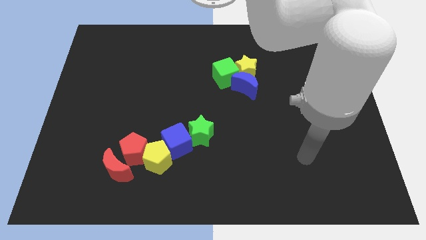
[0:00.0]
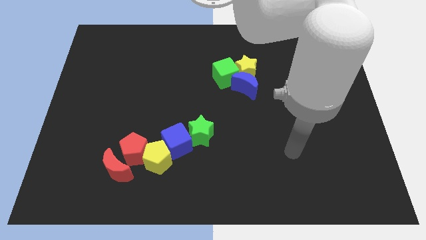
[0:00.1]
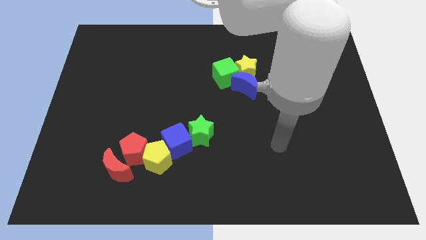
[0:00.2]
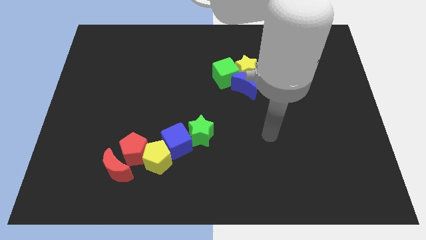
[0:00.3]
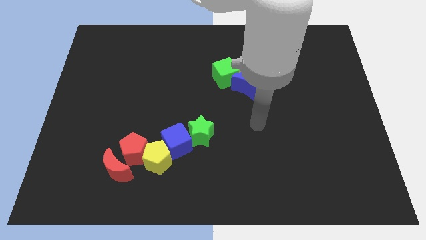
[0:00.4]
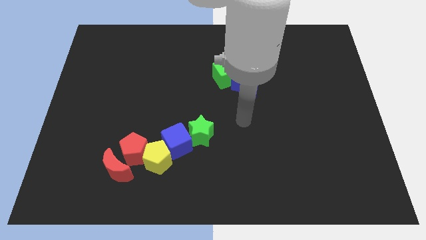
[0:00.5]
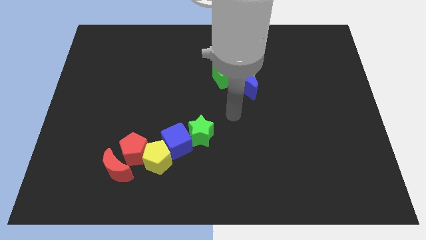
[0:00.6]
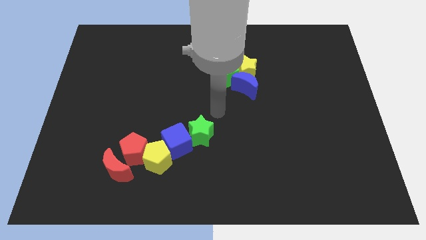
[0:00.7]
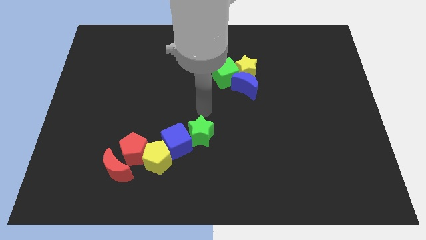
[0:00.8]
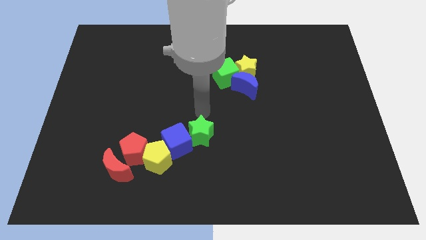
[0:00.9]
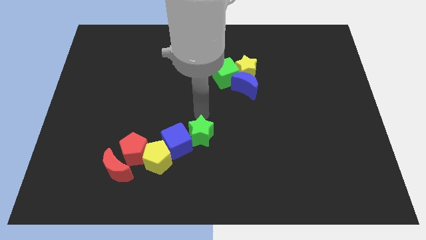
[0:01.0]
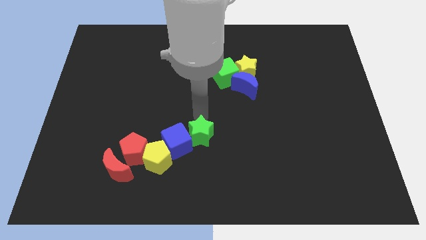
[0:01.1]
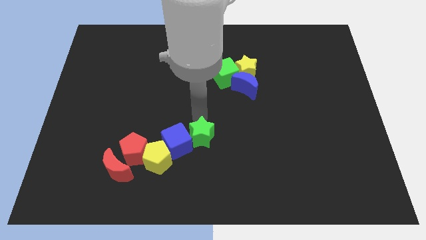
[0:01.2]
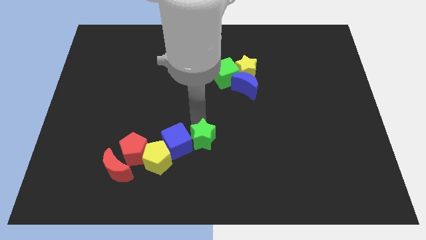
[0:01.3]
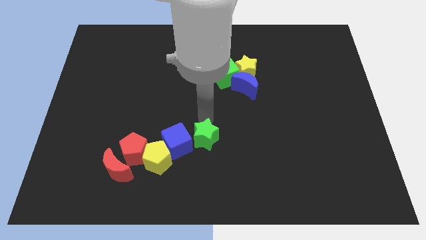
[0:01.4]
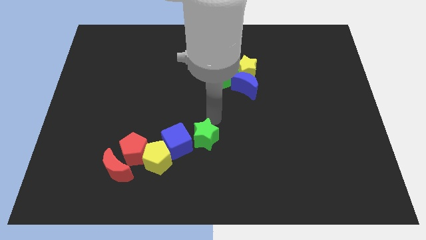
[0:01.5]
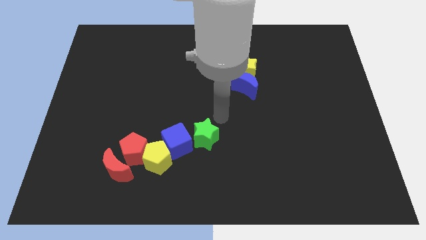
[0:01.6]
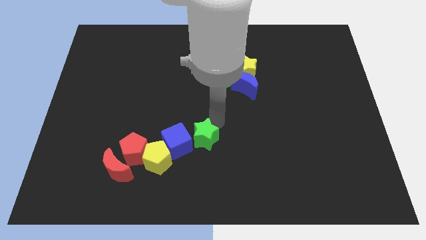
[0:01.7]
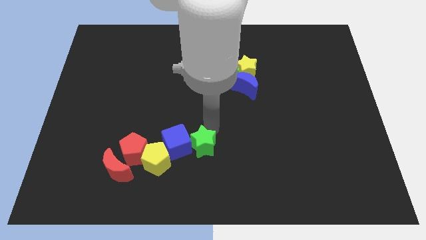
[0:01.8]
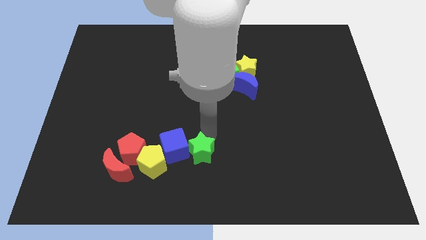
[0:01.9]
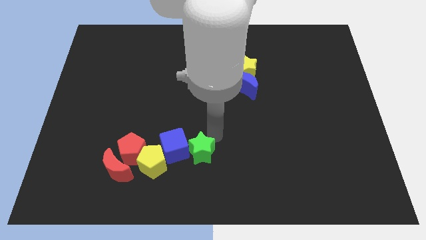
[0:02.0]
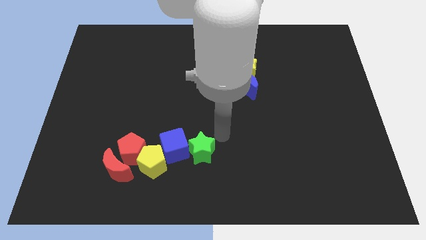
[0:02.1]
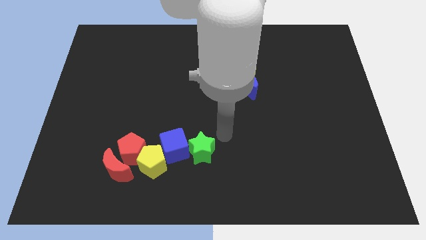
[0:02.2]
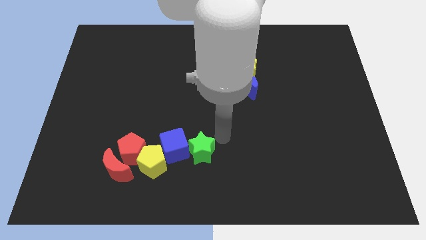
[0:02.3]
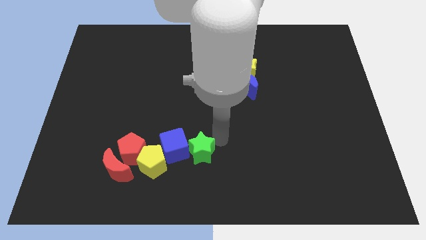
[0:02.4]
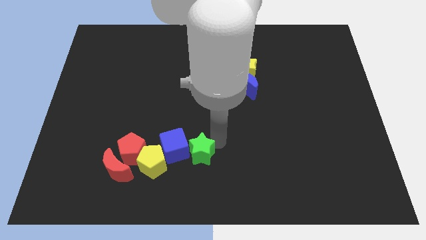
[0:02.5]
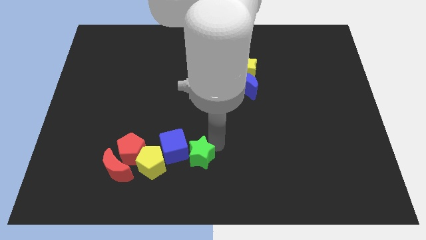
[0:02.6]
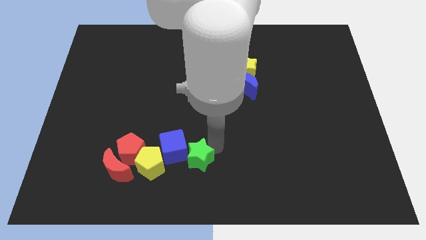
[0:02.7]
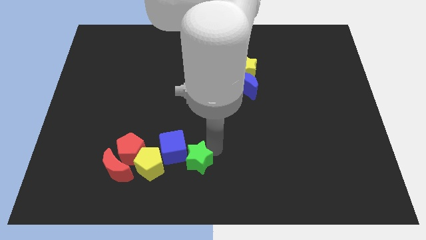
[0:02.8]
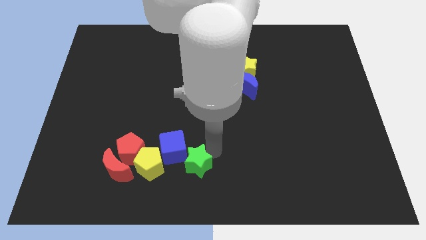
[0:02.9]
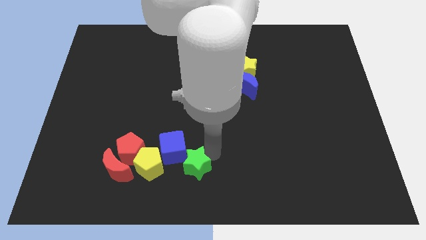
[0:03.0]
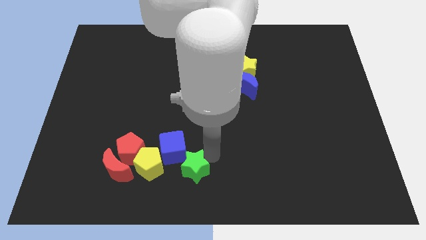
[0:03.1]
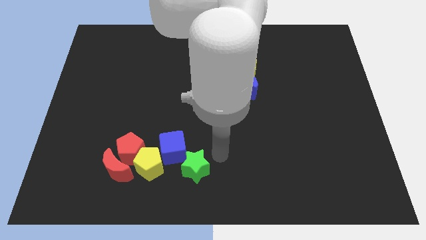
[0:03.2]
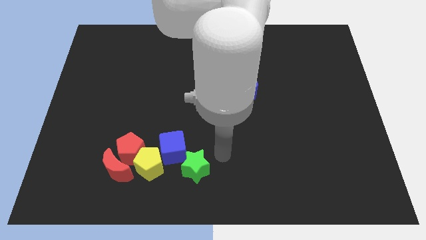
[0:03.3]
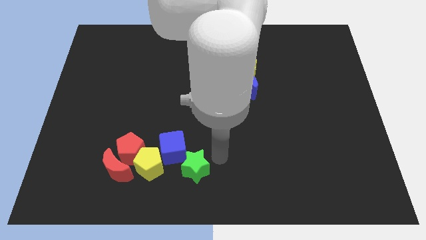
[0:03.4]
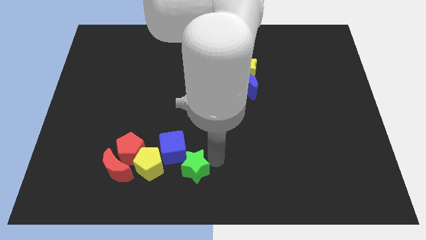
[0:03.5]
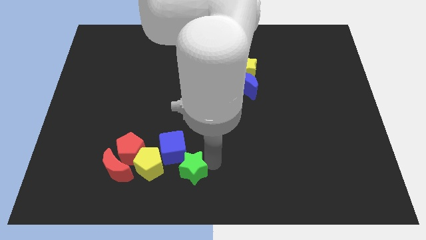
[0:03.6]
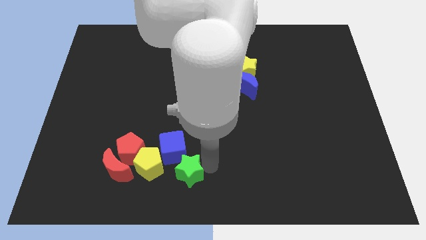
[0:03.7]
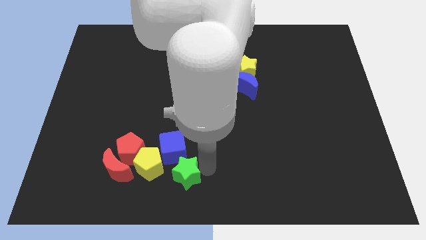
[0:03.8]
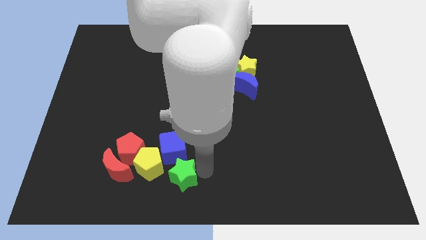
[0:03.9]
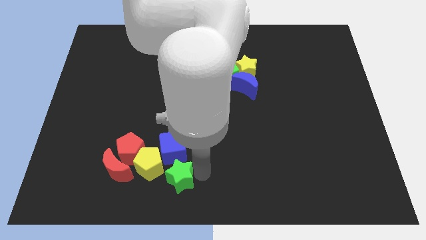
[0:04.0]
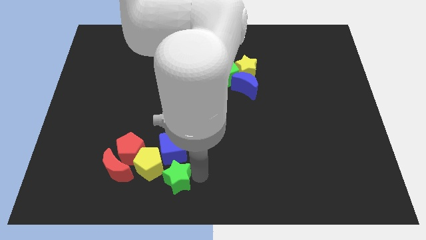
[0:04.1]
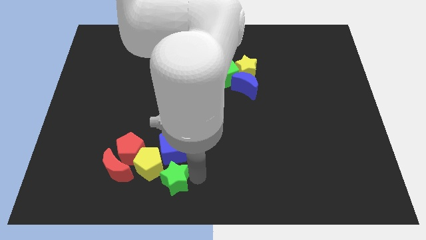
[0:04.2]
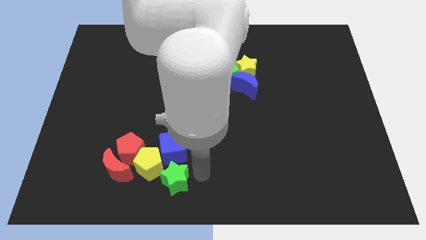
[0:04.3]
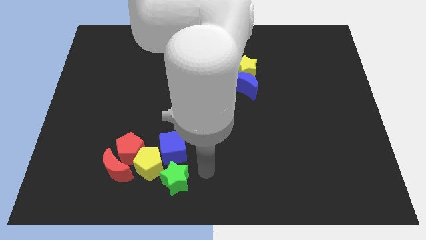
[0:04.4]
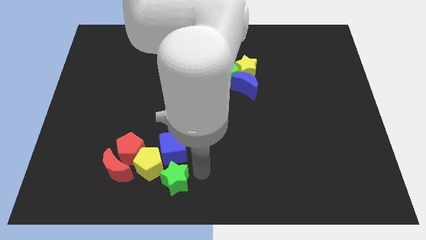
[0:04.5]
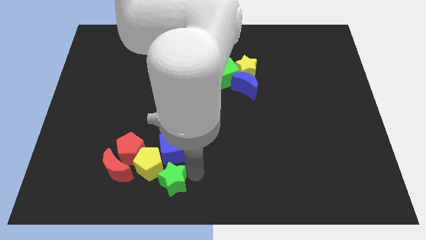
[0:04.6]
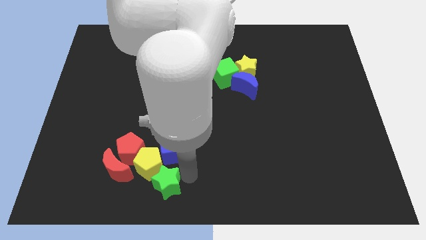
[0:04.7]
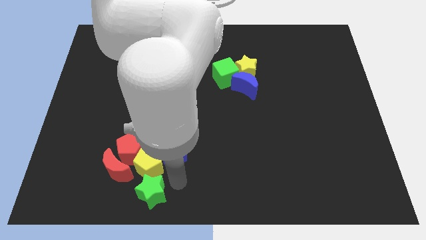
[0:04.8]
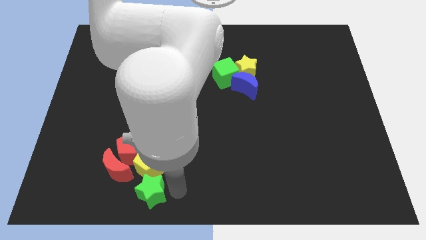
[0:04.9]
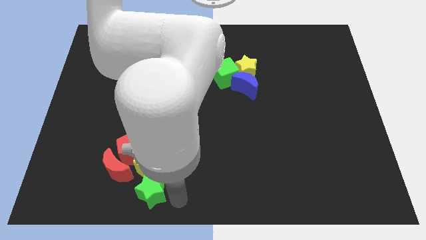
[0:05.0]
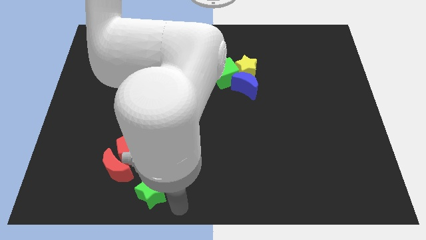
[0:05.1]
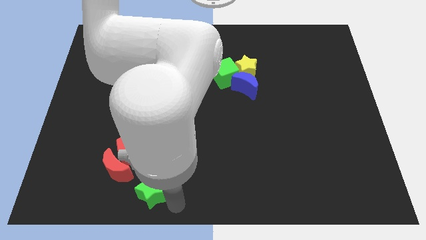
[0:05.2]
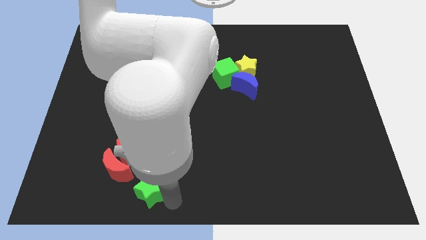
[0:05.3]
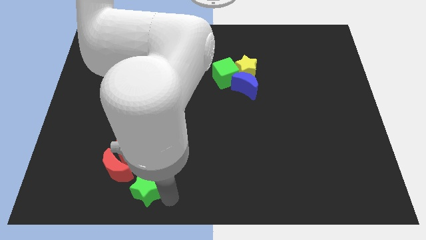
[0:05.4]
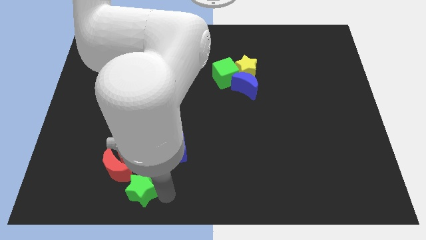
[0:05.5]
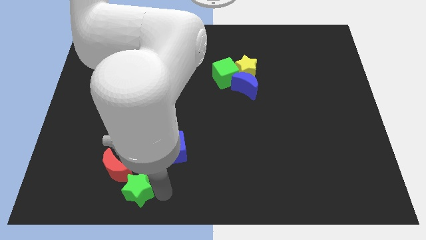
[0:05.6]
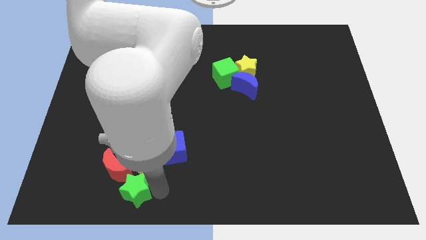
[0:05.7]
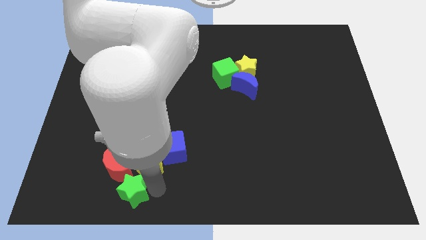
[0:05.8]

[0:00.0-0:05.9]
put the green star next to the red moon

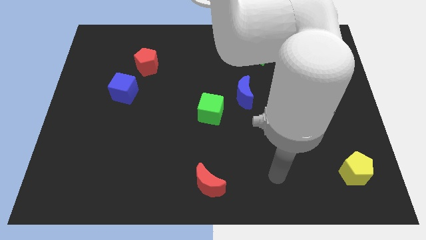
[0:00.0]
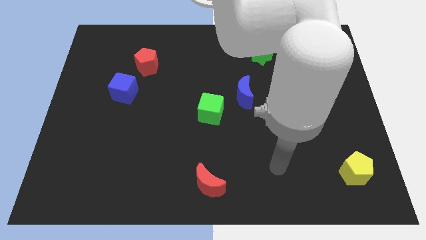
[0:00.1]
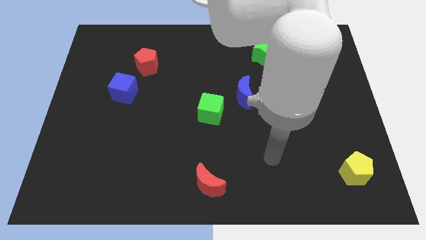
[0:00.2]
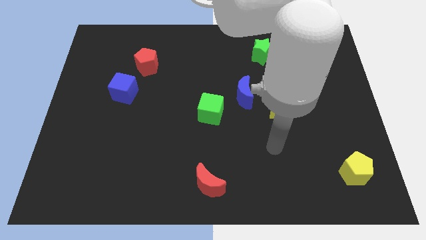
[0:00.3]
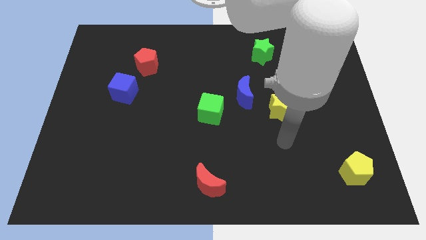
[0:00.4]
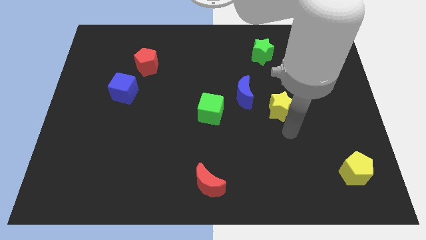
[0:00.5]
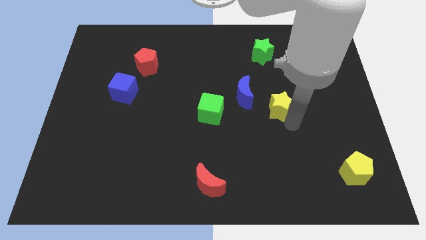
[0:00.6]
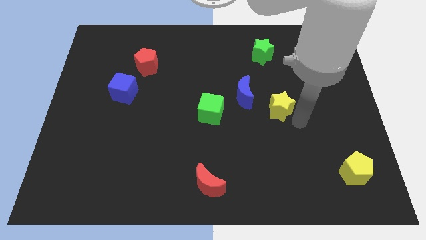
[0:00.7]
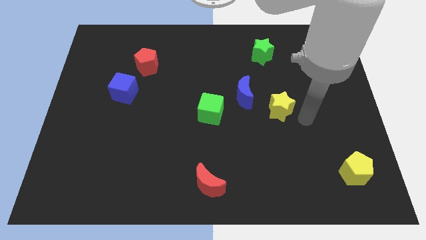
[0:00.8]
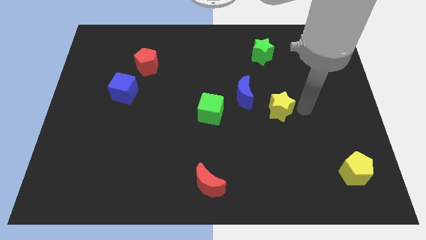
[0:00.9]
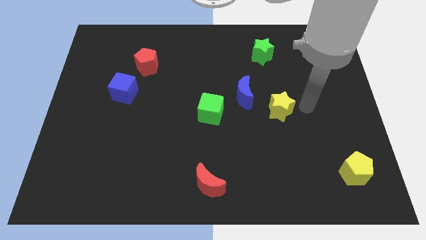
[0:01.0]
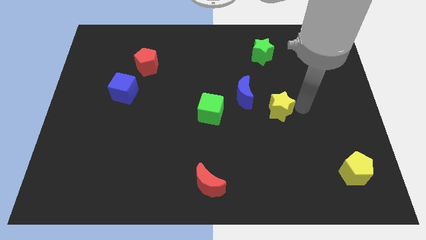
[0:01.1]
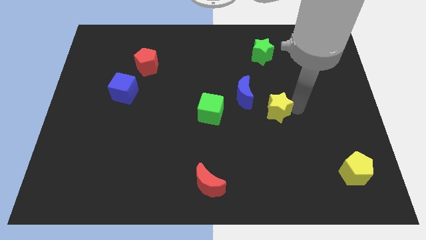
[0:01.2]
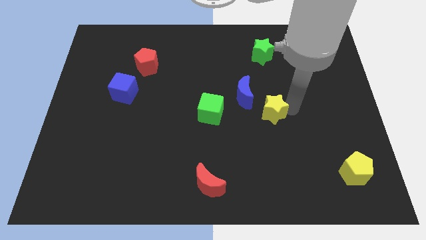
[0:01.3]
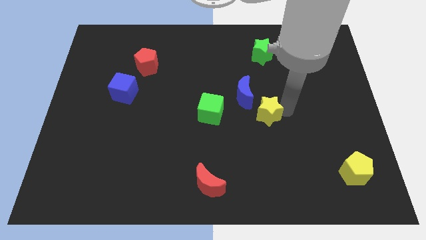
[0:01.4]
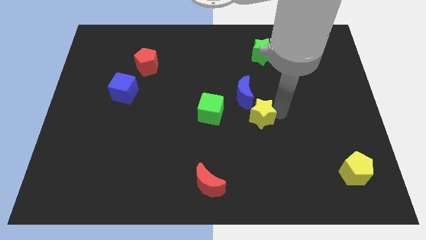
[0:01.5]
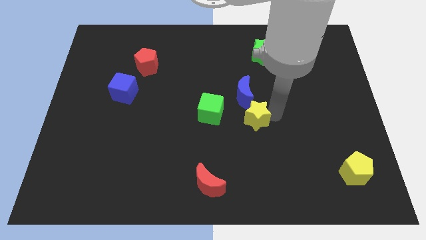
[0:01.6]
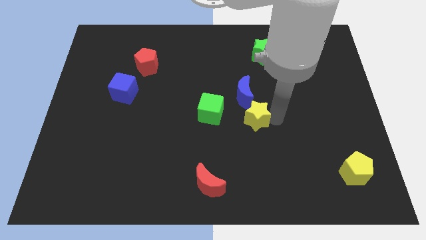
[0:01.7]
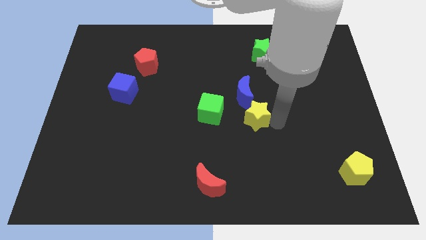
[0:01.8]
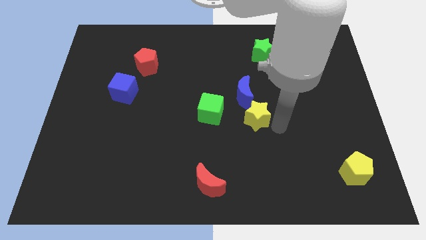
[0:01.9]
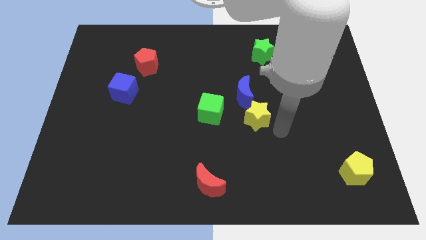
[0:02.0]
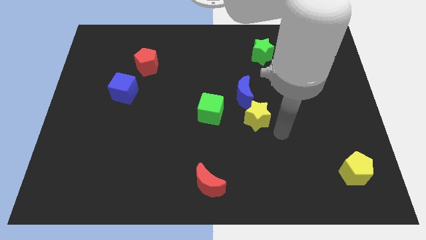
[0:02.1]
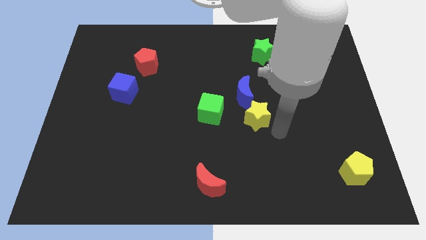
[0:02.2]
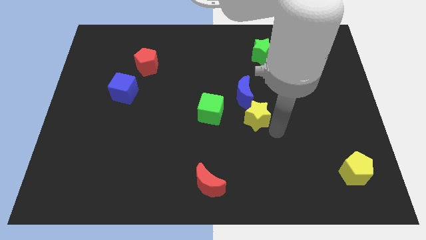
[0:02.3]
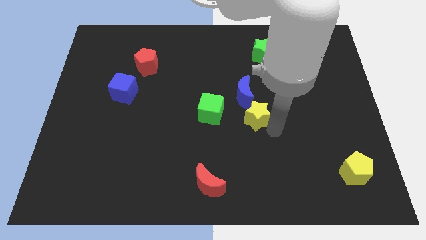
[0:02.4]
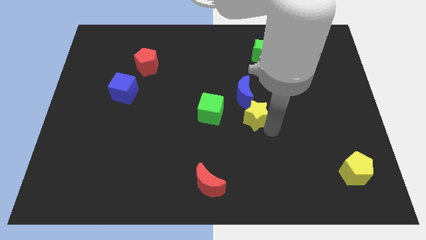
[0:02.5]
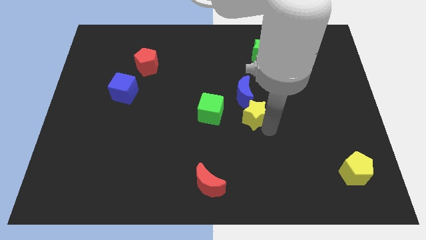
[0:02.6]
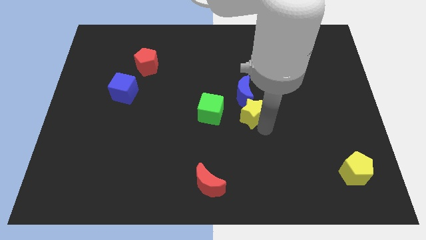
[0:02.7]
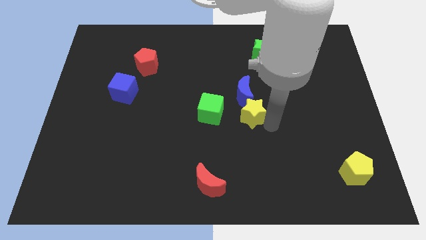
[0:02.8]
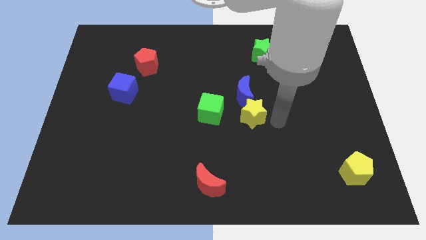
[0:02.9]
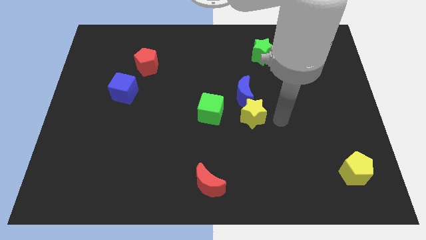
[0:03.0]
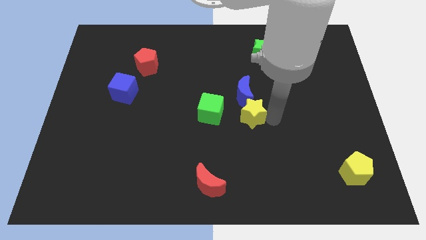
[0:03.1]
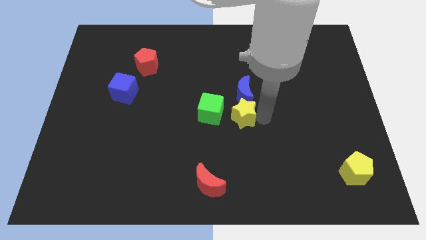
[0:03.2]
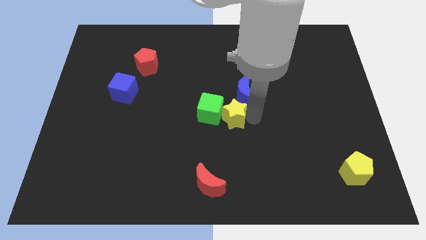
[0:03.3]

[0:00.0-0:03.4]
put the yellow star to the green cube
